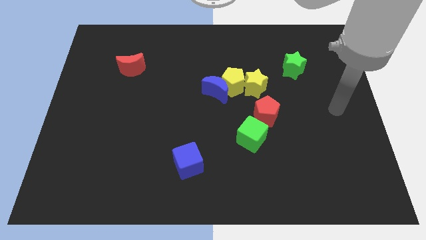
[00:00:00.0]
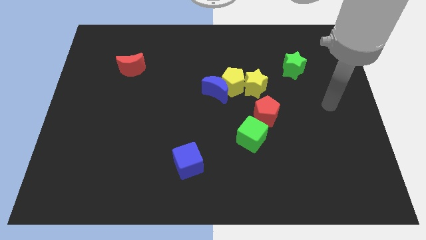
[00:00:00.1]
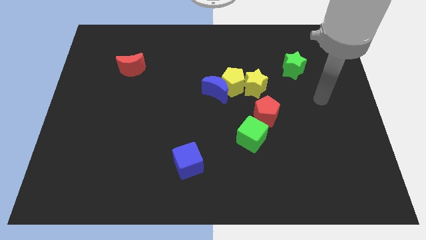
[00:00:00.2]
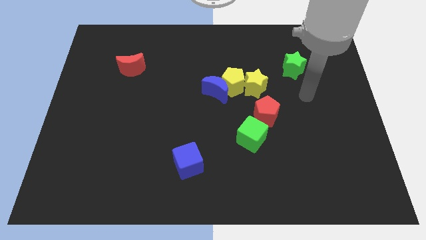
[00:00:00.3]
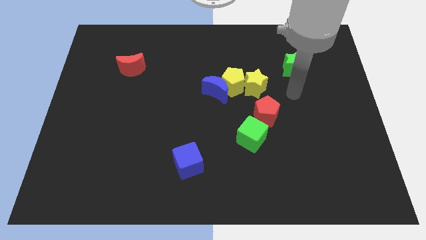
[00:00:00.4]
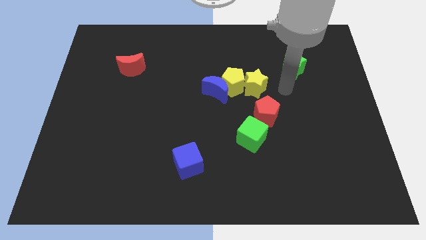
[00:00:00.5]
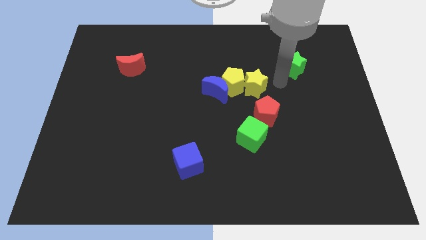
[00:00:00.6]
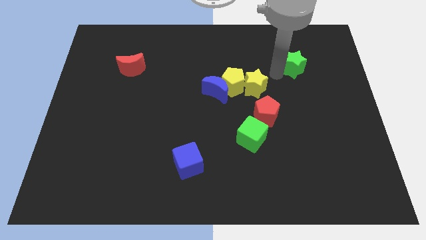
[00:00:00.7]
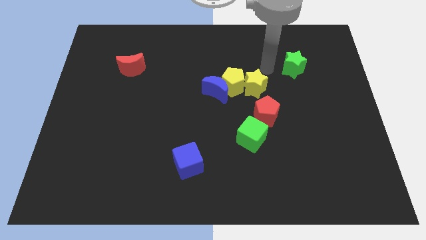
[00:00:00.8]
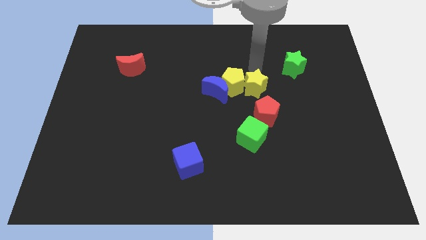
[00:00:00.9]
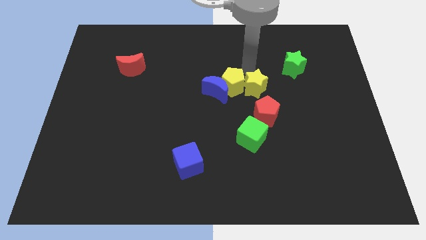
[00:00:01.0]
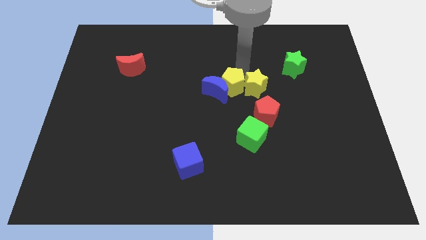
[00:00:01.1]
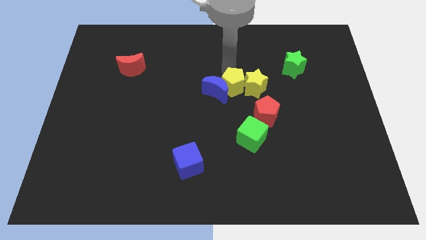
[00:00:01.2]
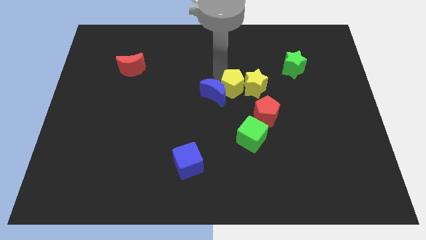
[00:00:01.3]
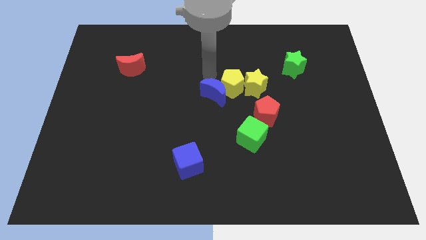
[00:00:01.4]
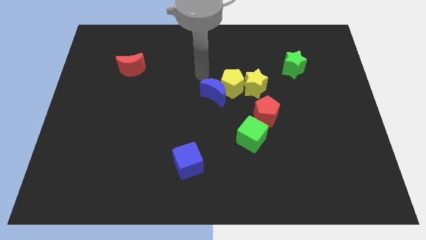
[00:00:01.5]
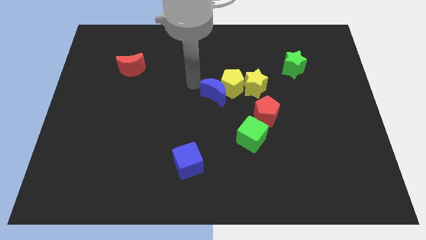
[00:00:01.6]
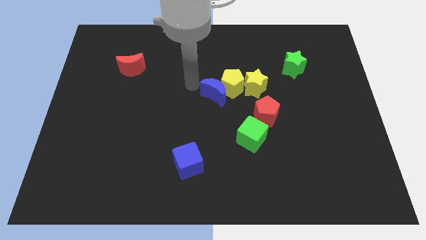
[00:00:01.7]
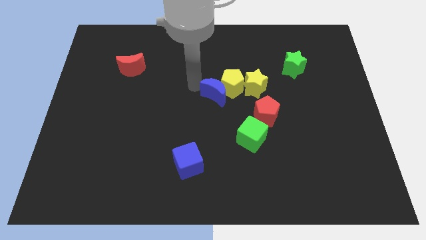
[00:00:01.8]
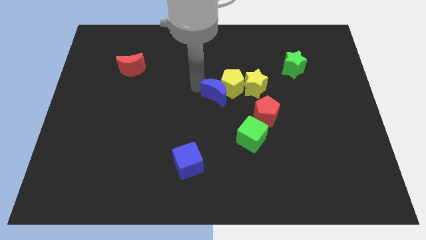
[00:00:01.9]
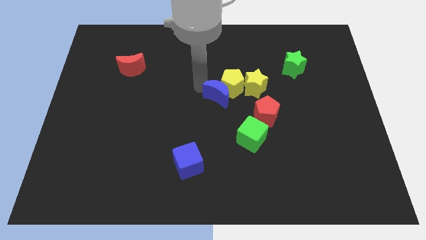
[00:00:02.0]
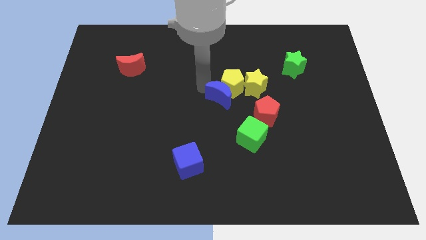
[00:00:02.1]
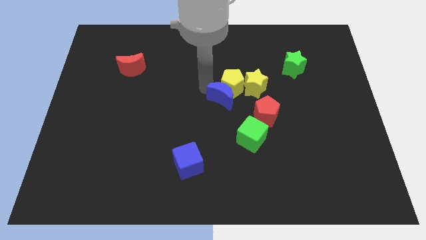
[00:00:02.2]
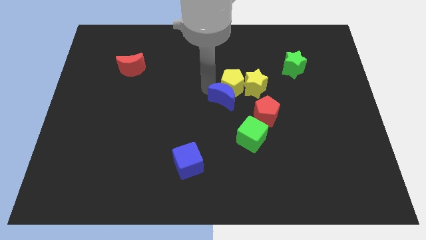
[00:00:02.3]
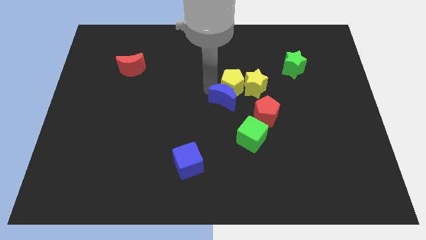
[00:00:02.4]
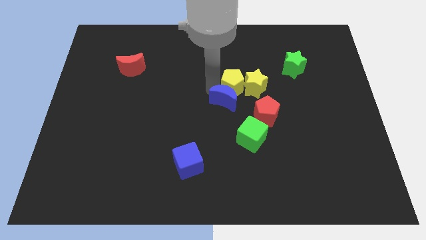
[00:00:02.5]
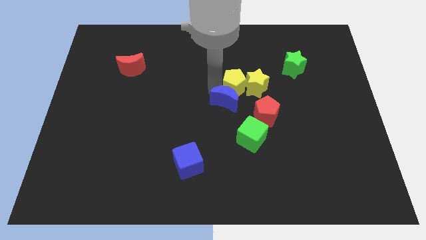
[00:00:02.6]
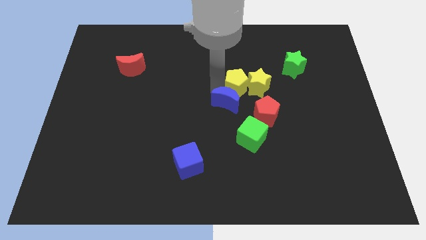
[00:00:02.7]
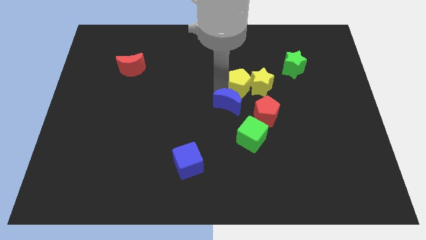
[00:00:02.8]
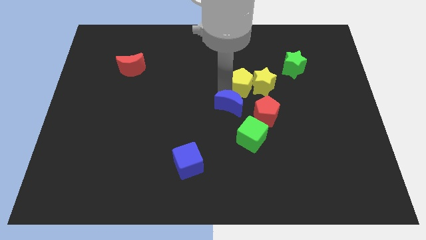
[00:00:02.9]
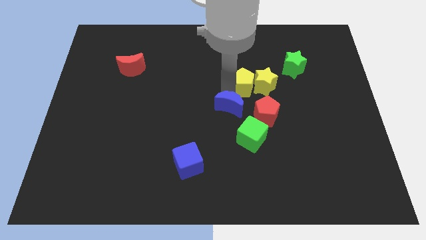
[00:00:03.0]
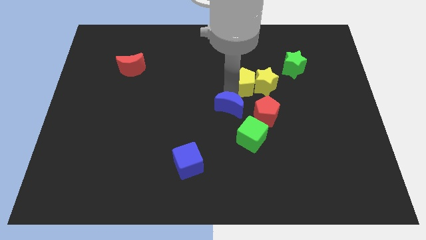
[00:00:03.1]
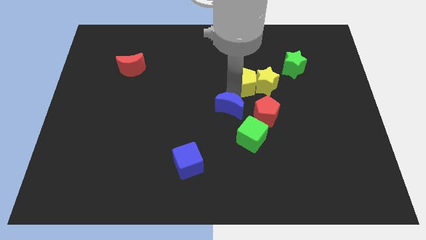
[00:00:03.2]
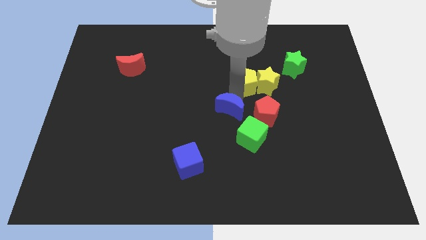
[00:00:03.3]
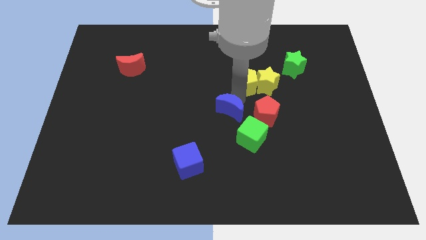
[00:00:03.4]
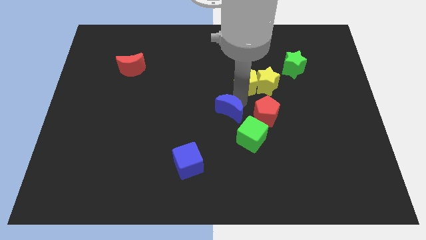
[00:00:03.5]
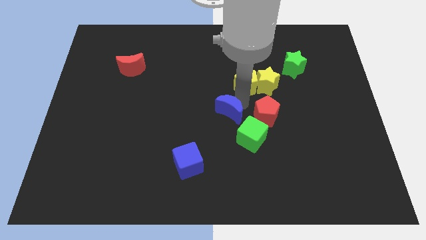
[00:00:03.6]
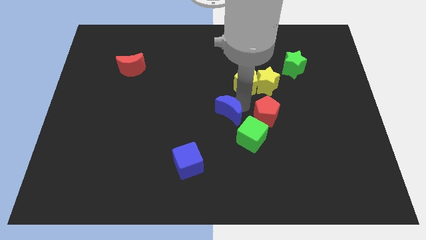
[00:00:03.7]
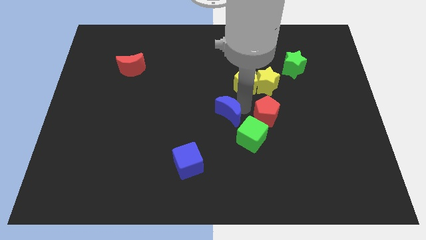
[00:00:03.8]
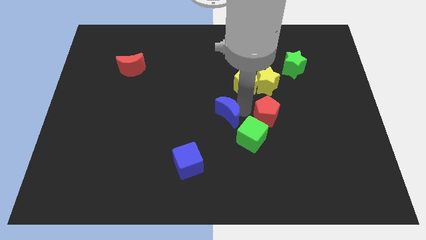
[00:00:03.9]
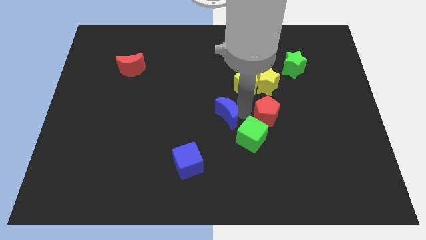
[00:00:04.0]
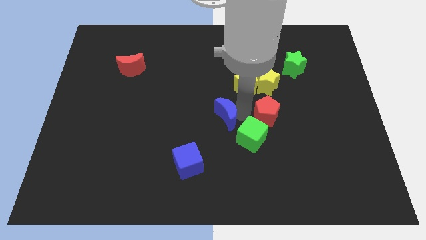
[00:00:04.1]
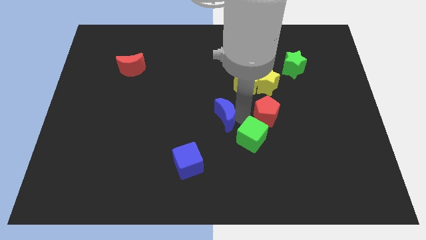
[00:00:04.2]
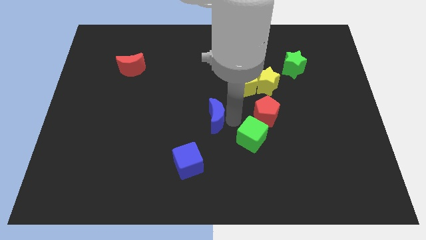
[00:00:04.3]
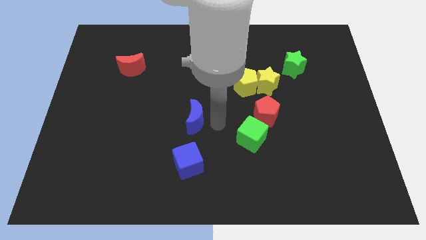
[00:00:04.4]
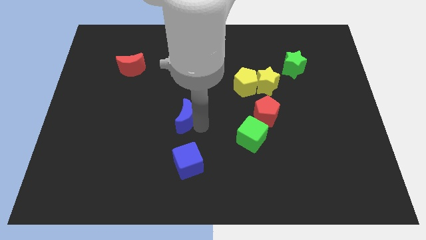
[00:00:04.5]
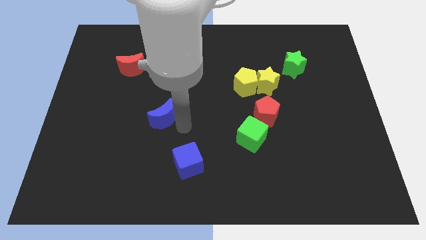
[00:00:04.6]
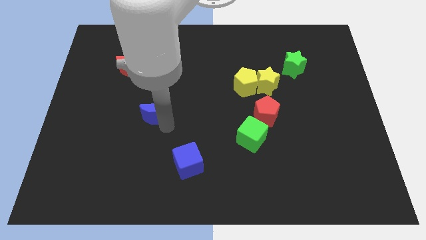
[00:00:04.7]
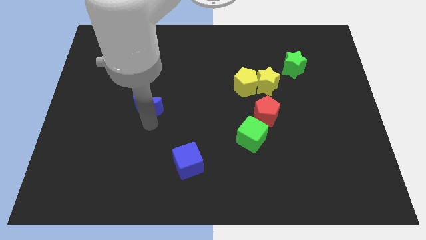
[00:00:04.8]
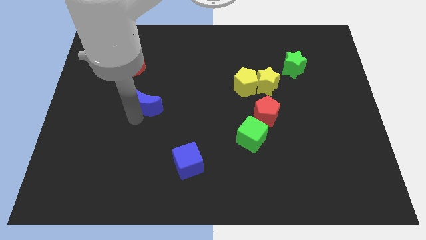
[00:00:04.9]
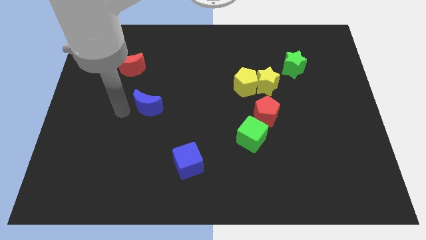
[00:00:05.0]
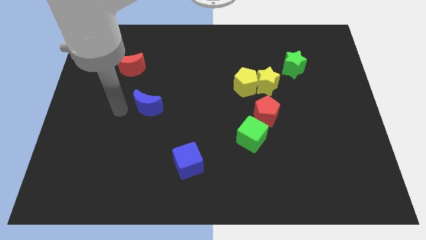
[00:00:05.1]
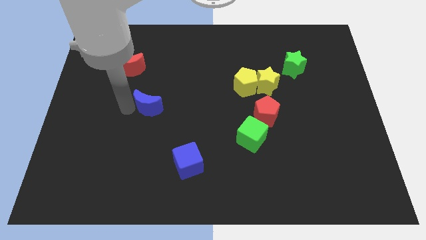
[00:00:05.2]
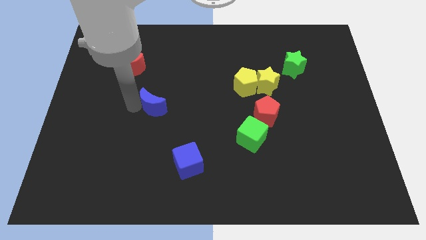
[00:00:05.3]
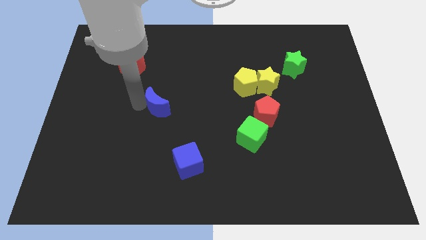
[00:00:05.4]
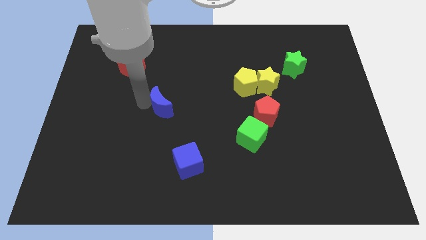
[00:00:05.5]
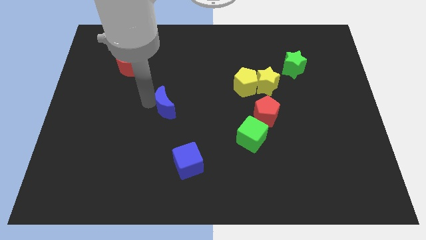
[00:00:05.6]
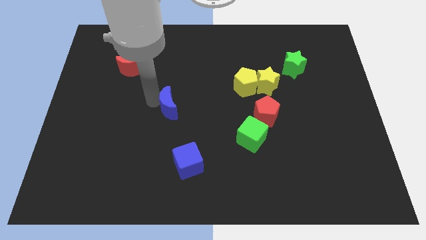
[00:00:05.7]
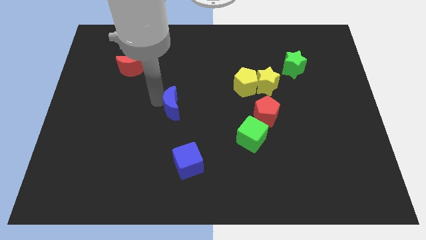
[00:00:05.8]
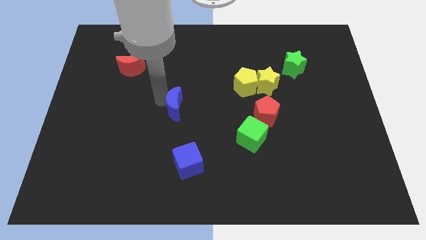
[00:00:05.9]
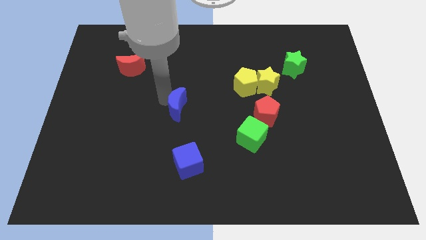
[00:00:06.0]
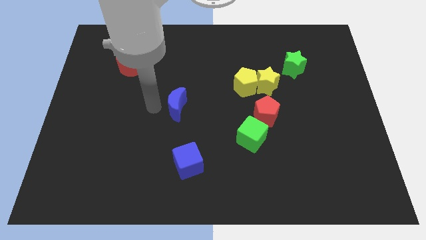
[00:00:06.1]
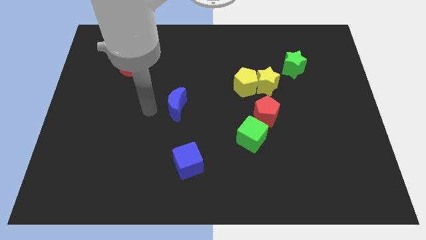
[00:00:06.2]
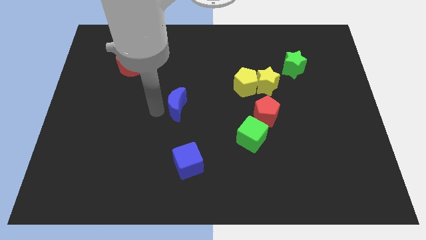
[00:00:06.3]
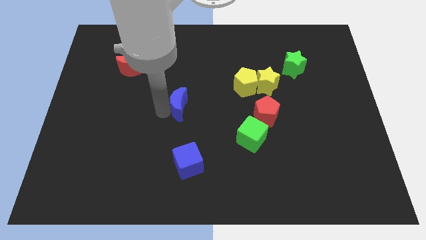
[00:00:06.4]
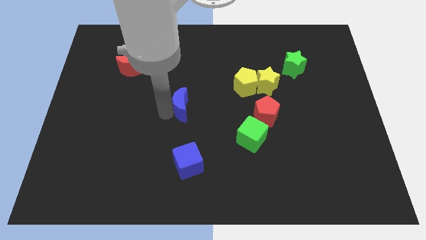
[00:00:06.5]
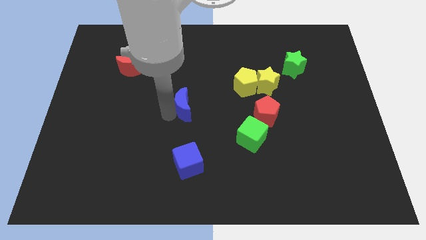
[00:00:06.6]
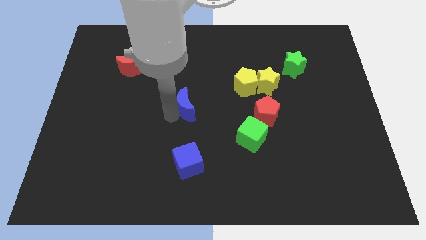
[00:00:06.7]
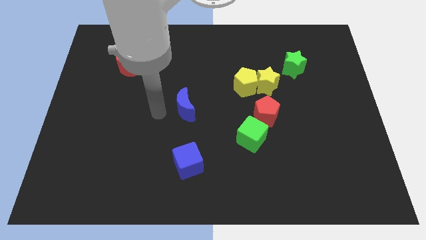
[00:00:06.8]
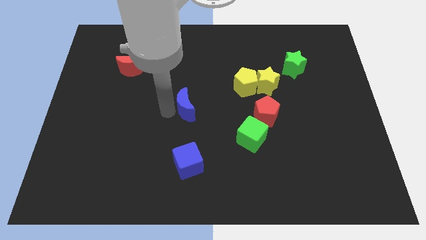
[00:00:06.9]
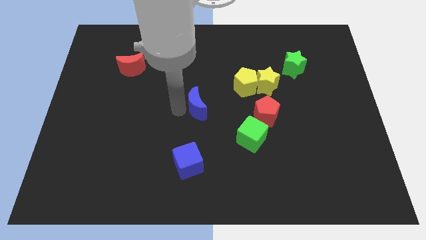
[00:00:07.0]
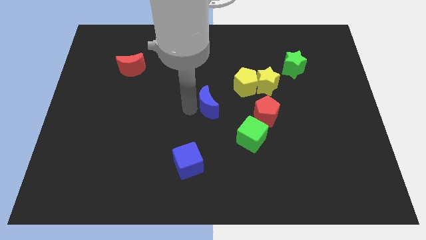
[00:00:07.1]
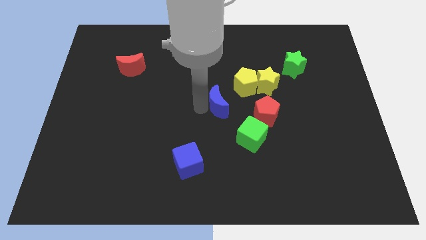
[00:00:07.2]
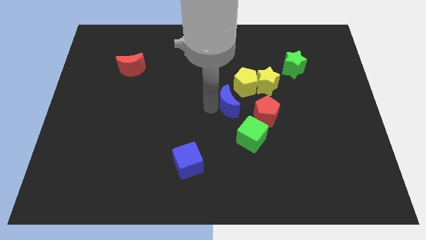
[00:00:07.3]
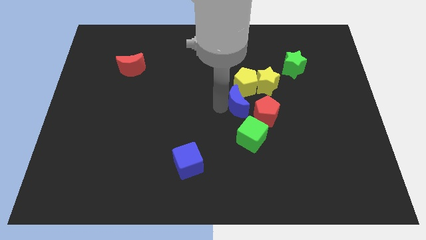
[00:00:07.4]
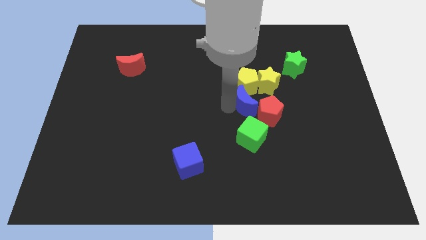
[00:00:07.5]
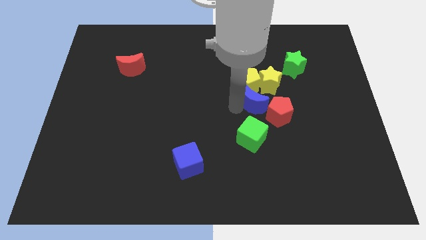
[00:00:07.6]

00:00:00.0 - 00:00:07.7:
push the blue moon a little bit to the right

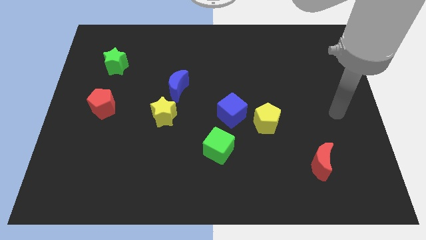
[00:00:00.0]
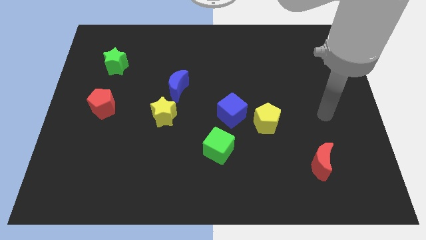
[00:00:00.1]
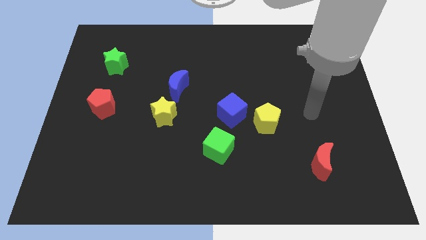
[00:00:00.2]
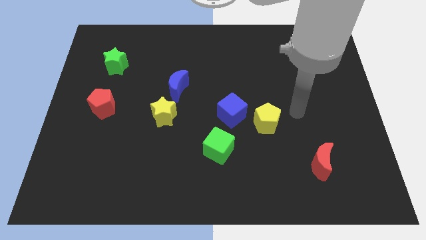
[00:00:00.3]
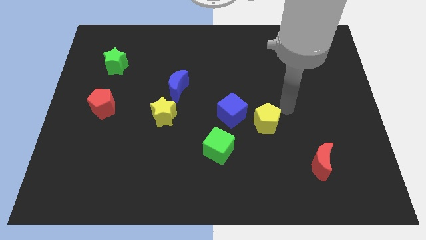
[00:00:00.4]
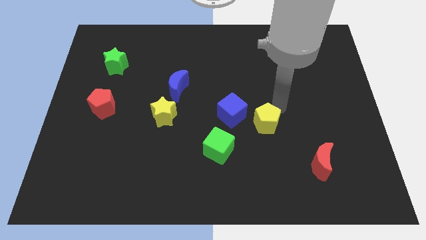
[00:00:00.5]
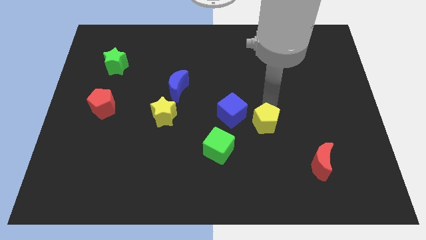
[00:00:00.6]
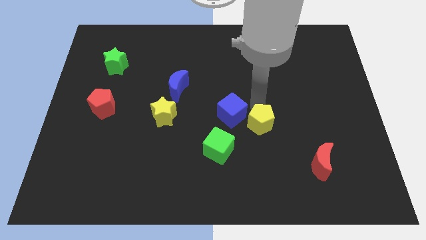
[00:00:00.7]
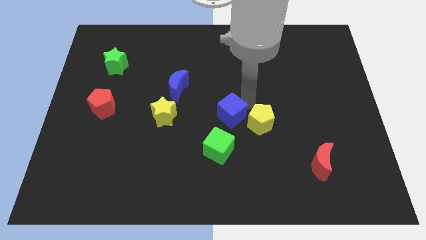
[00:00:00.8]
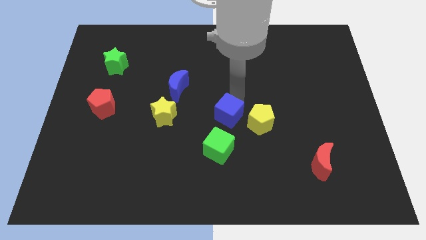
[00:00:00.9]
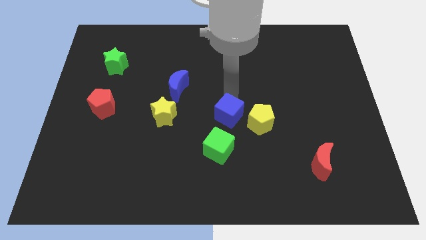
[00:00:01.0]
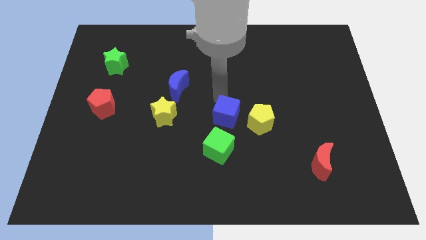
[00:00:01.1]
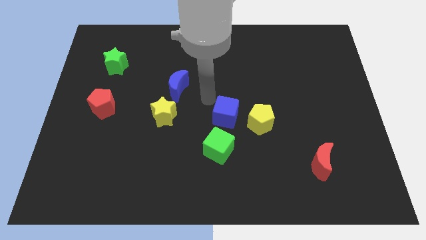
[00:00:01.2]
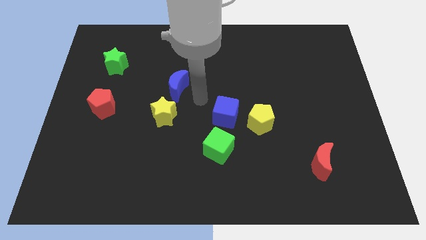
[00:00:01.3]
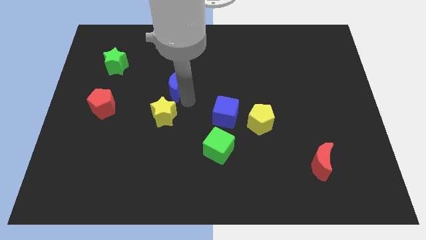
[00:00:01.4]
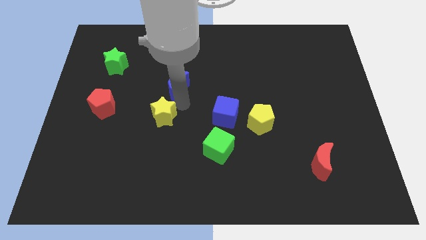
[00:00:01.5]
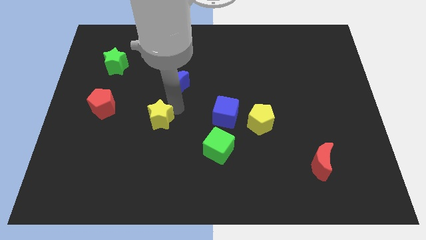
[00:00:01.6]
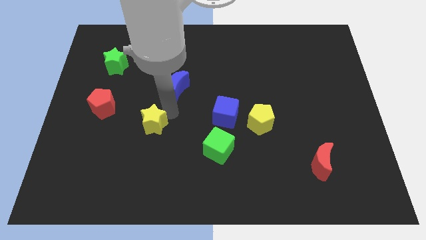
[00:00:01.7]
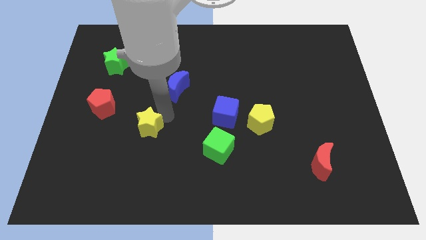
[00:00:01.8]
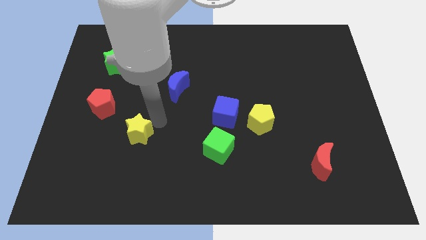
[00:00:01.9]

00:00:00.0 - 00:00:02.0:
push the yellow star down and left a little
